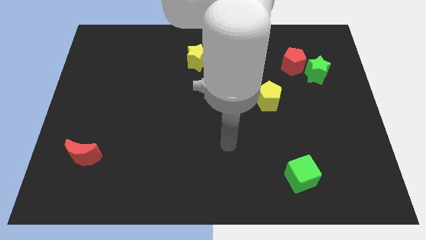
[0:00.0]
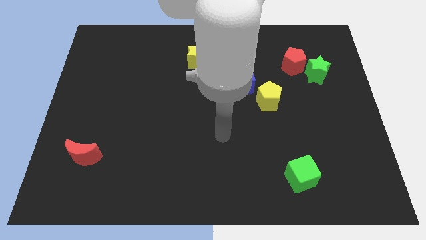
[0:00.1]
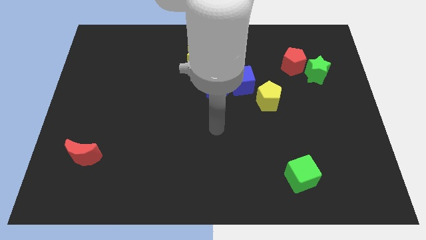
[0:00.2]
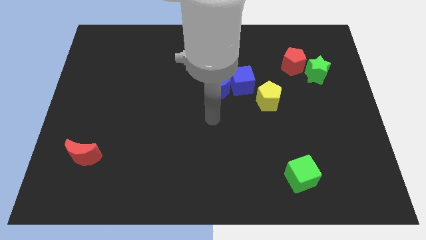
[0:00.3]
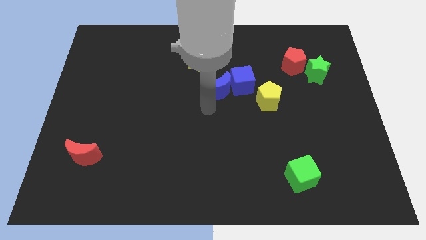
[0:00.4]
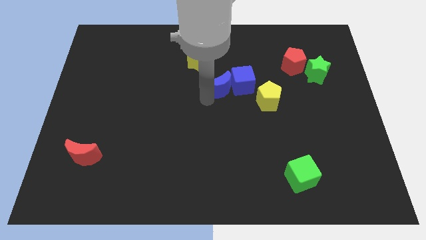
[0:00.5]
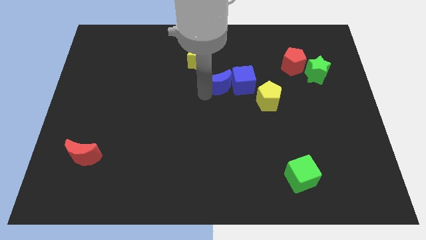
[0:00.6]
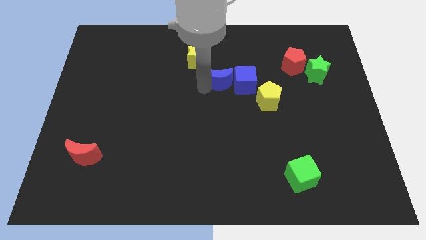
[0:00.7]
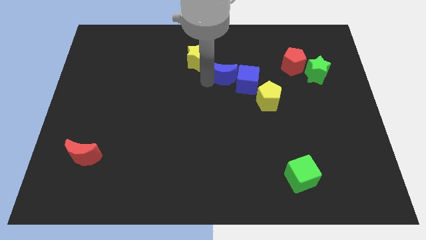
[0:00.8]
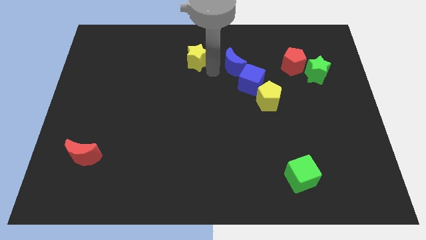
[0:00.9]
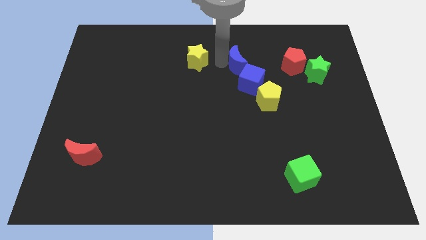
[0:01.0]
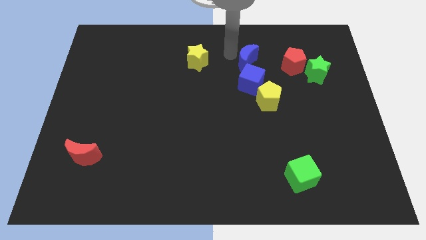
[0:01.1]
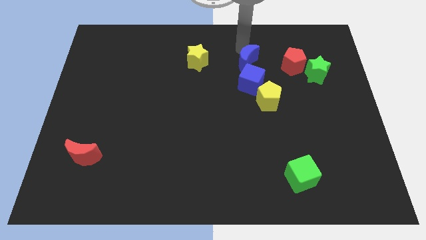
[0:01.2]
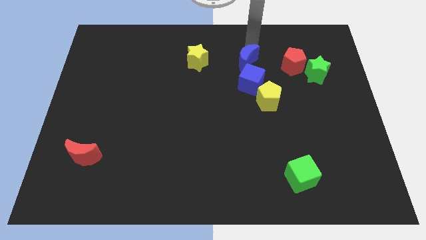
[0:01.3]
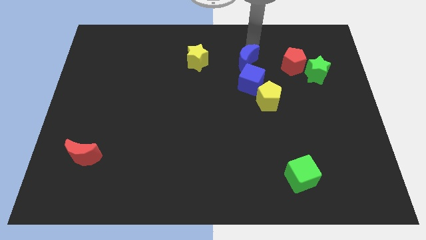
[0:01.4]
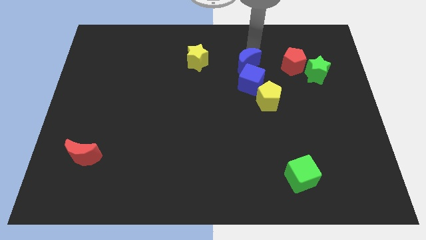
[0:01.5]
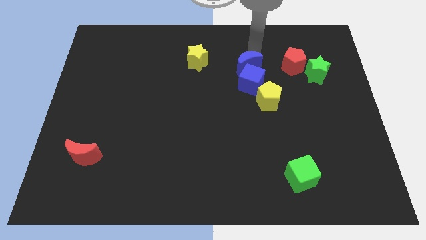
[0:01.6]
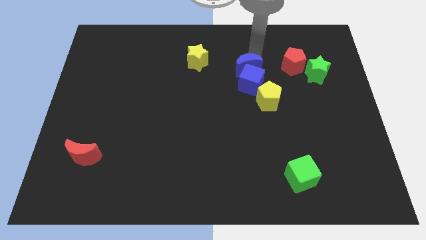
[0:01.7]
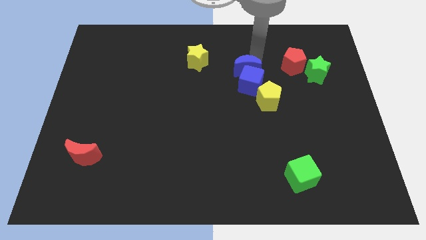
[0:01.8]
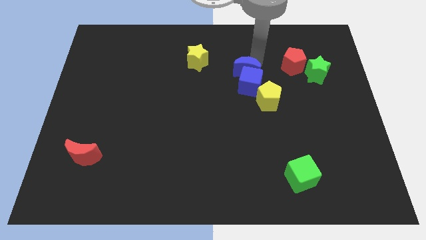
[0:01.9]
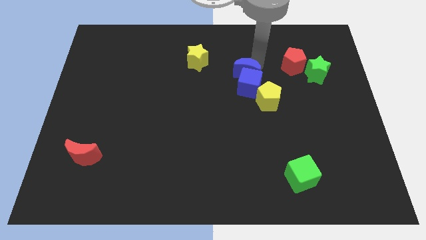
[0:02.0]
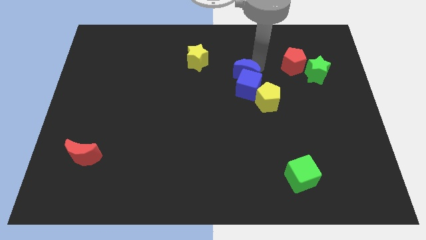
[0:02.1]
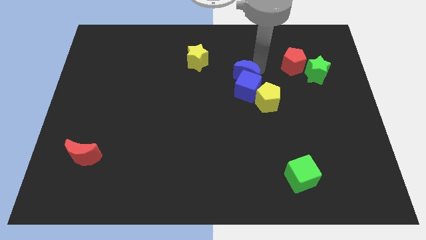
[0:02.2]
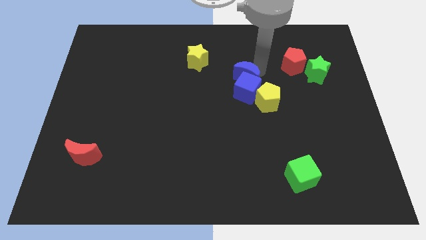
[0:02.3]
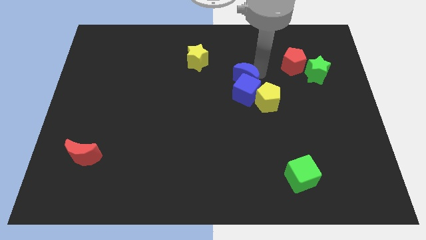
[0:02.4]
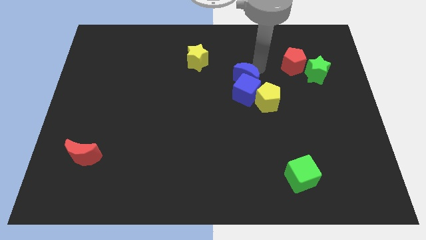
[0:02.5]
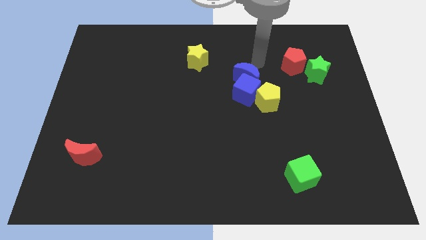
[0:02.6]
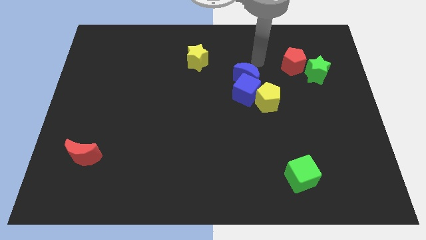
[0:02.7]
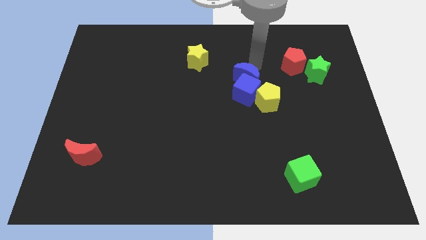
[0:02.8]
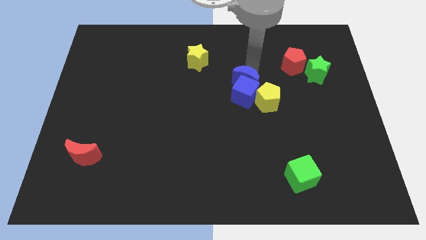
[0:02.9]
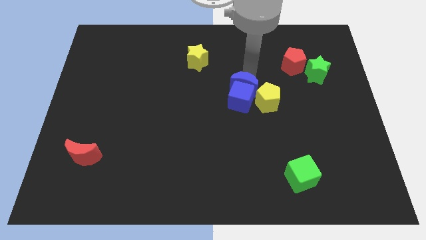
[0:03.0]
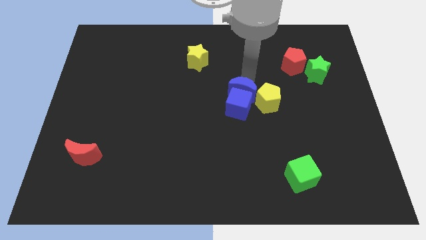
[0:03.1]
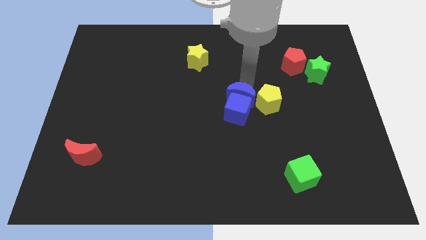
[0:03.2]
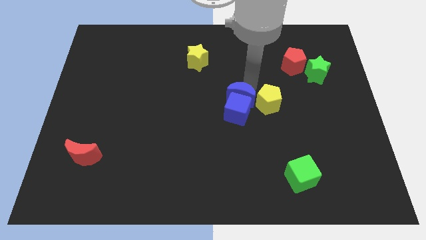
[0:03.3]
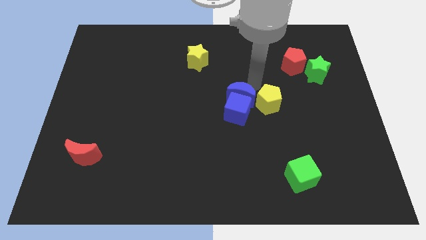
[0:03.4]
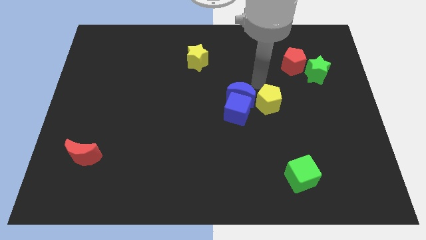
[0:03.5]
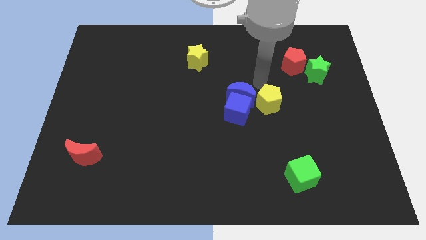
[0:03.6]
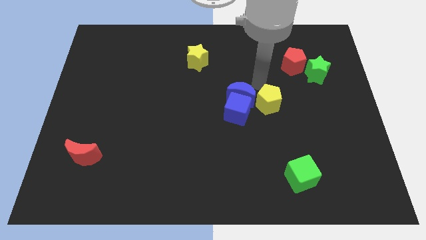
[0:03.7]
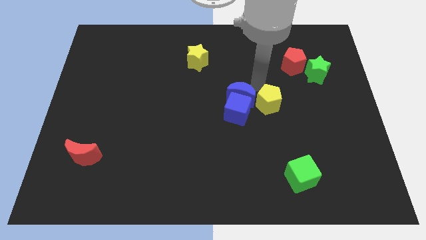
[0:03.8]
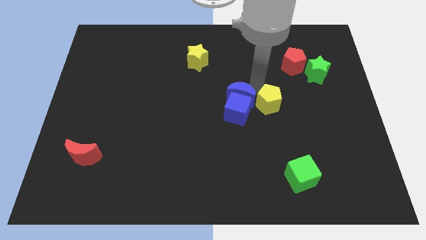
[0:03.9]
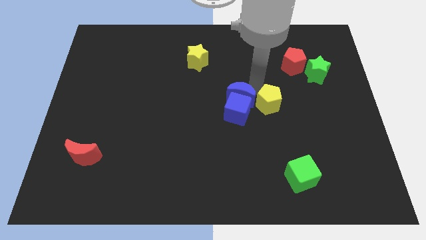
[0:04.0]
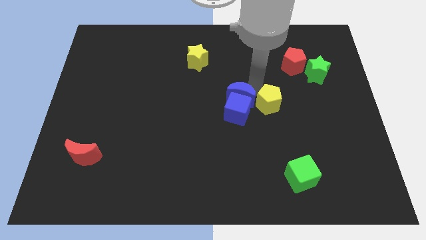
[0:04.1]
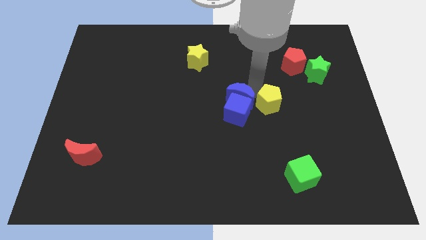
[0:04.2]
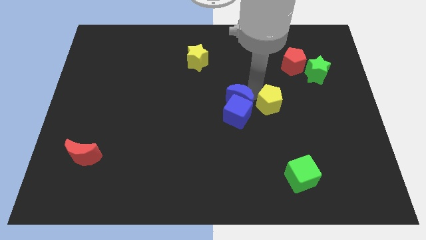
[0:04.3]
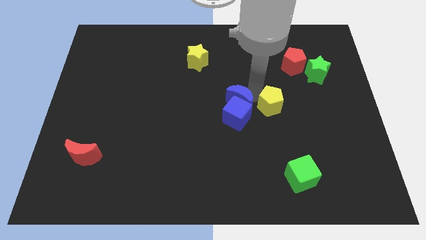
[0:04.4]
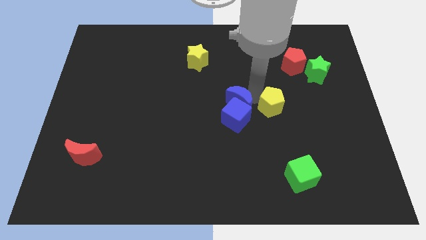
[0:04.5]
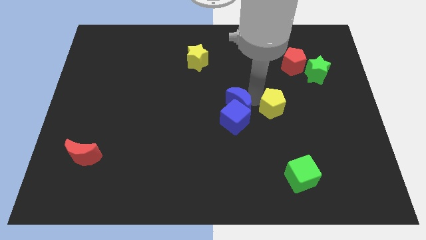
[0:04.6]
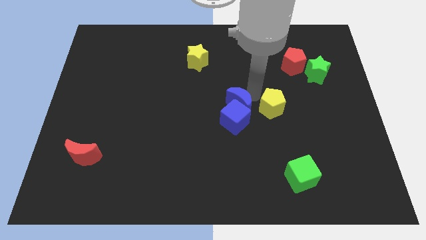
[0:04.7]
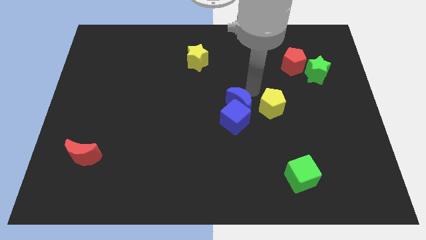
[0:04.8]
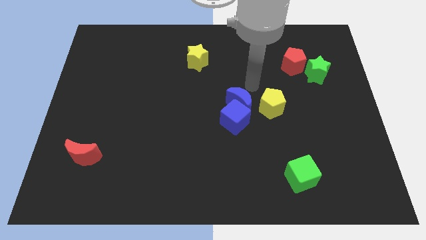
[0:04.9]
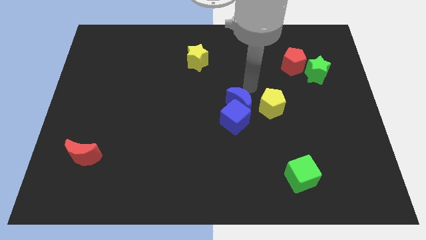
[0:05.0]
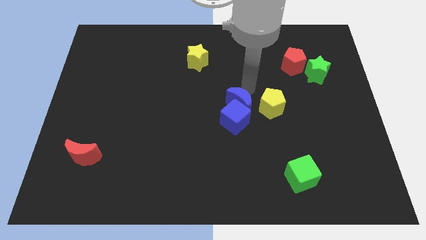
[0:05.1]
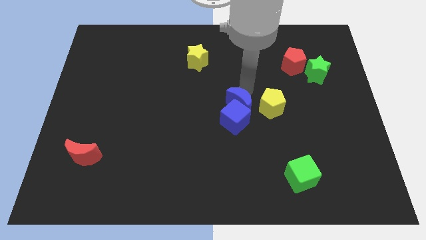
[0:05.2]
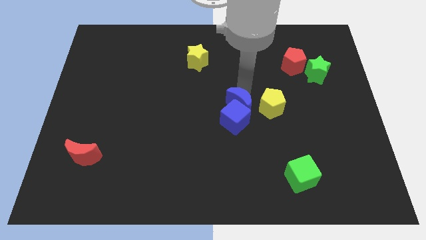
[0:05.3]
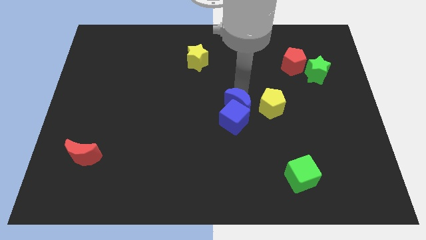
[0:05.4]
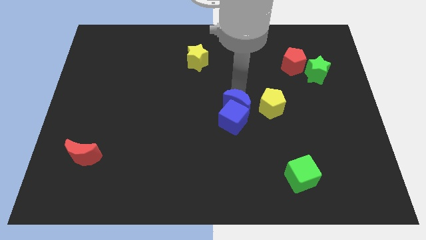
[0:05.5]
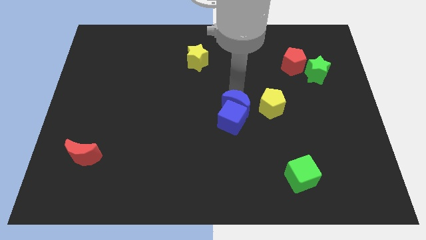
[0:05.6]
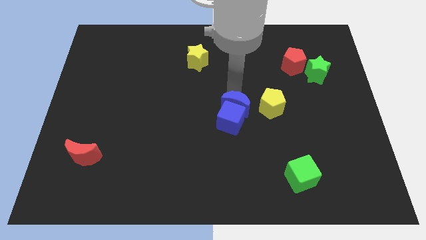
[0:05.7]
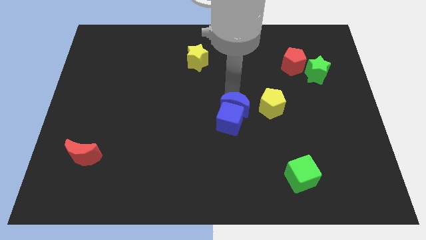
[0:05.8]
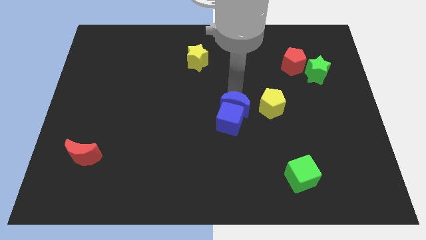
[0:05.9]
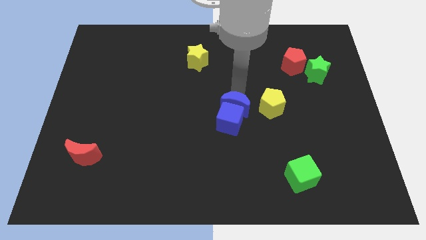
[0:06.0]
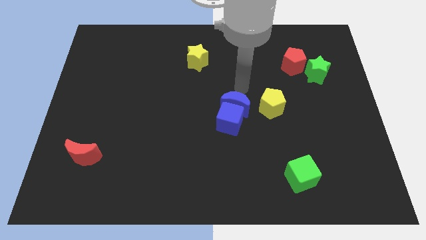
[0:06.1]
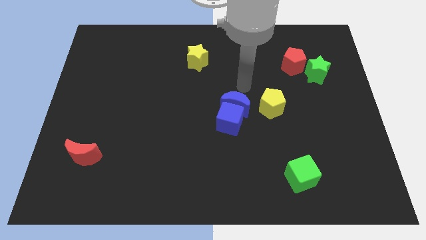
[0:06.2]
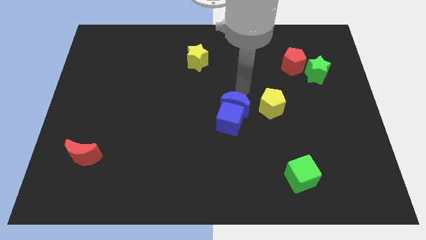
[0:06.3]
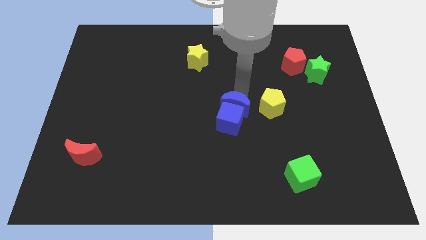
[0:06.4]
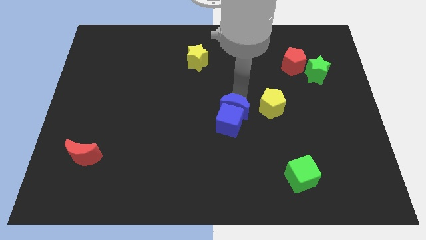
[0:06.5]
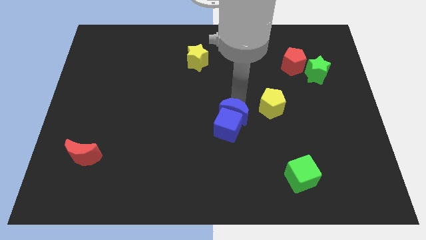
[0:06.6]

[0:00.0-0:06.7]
slightly push the blue moon down

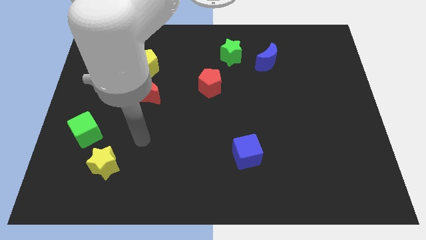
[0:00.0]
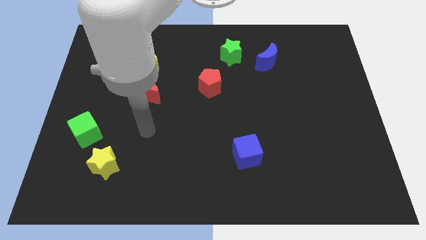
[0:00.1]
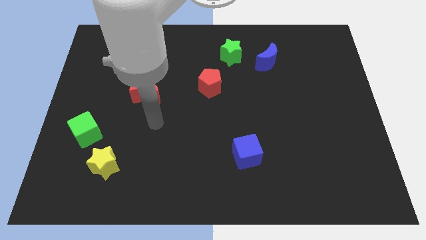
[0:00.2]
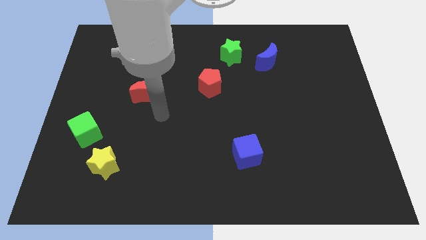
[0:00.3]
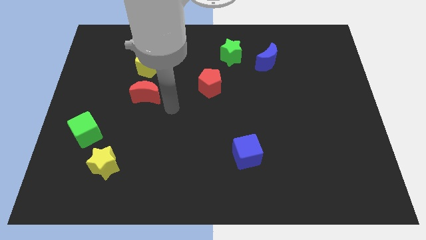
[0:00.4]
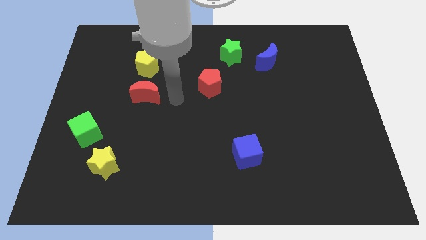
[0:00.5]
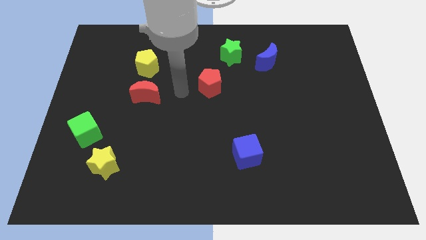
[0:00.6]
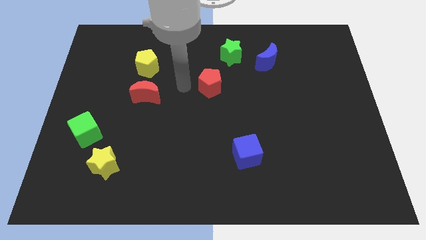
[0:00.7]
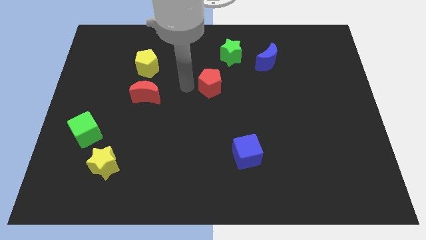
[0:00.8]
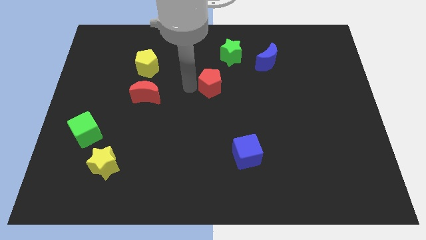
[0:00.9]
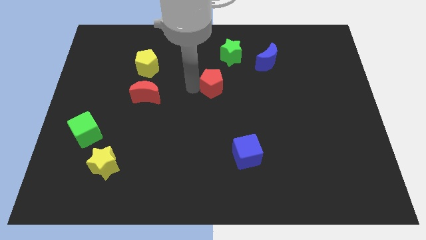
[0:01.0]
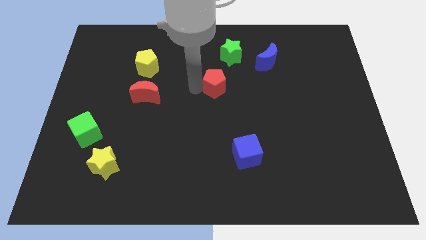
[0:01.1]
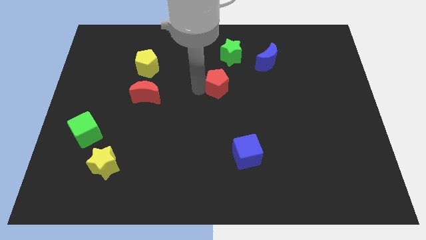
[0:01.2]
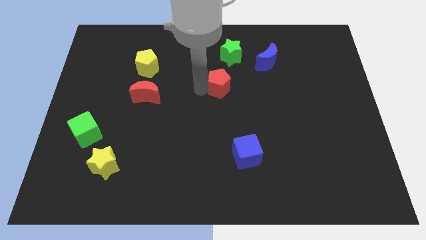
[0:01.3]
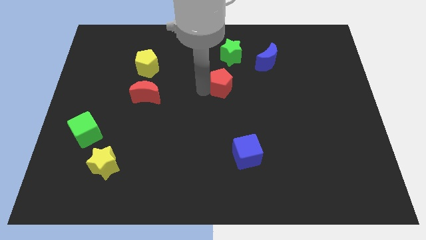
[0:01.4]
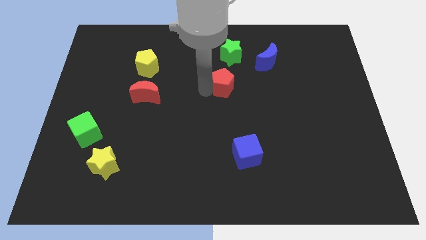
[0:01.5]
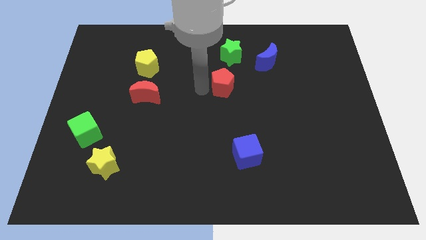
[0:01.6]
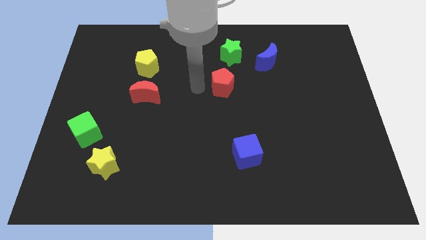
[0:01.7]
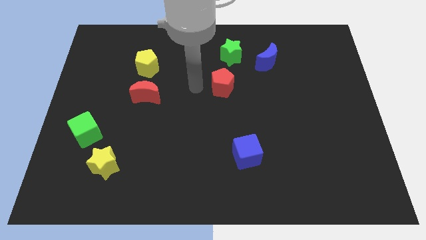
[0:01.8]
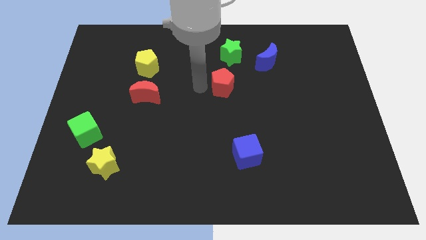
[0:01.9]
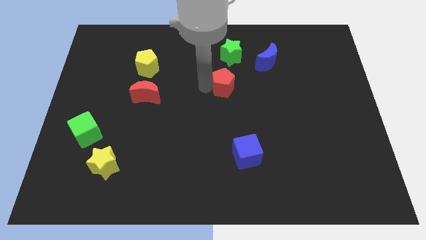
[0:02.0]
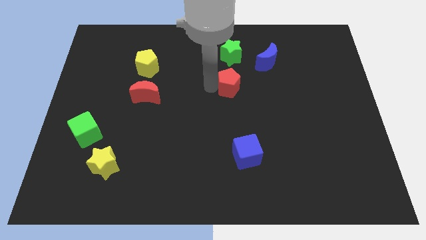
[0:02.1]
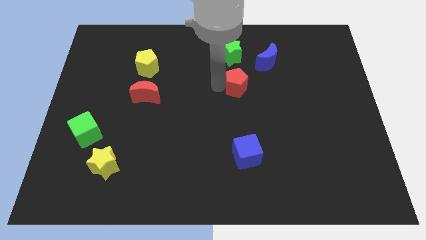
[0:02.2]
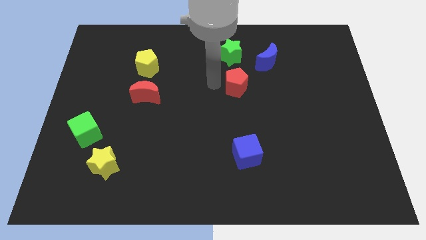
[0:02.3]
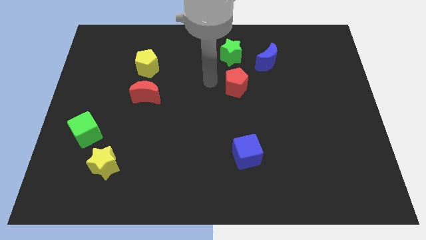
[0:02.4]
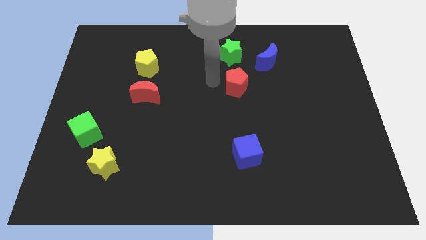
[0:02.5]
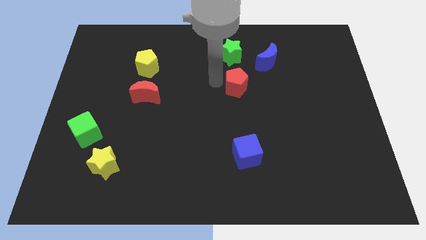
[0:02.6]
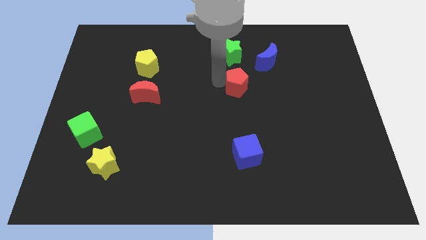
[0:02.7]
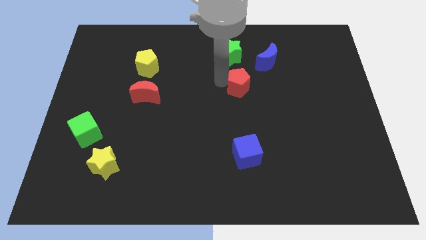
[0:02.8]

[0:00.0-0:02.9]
push the red pentagon a little to the right
